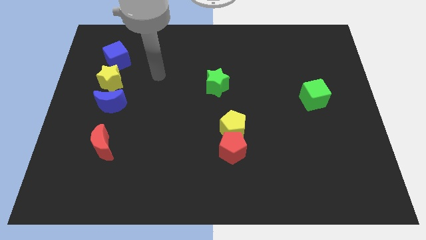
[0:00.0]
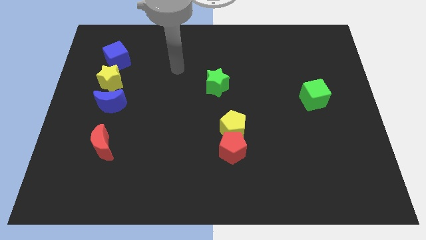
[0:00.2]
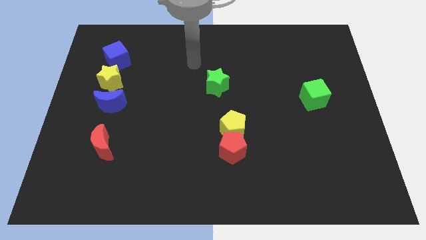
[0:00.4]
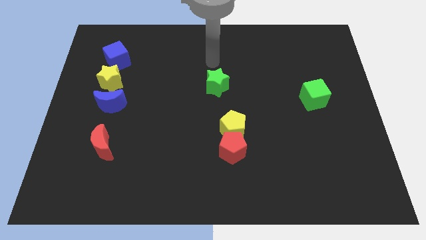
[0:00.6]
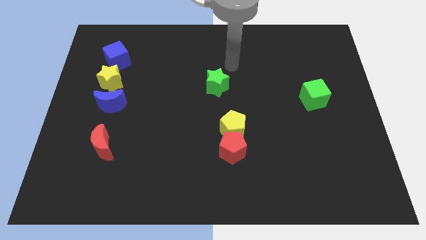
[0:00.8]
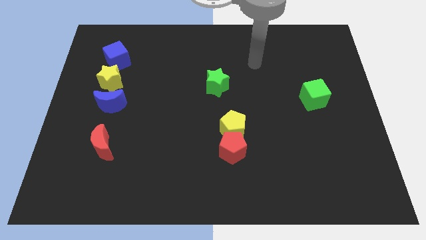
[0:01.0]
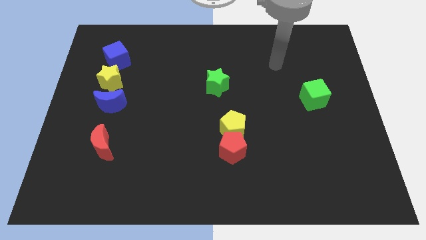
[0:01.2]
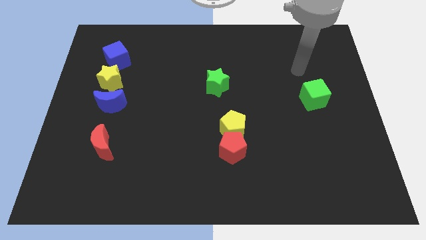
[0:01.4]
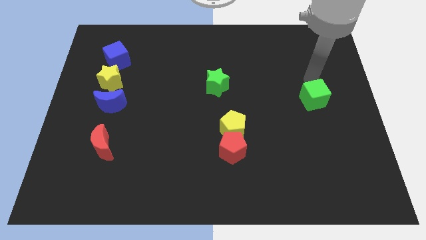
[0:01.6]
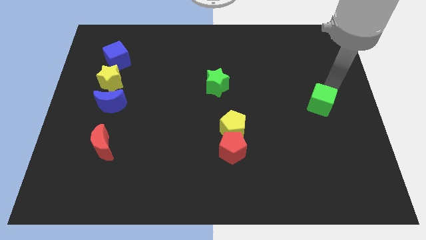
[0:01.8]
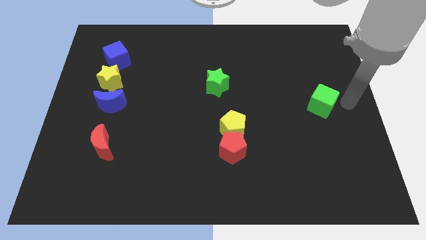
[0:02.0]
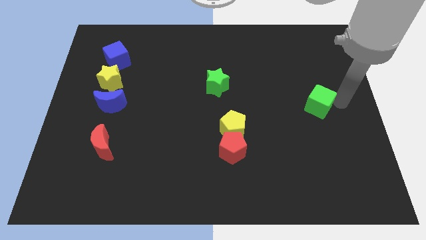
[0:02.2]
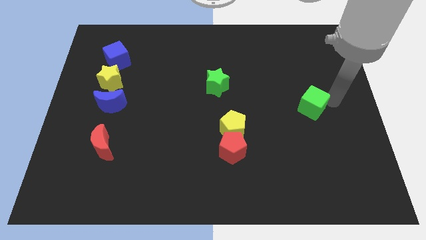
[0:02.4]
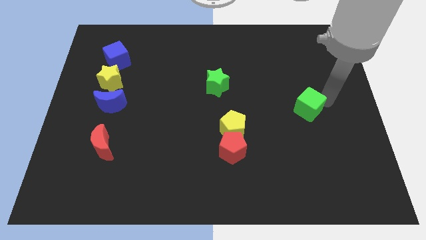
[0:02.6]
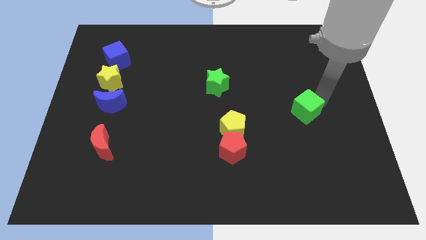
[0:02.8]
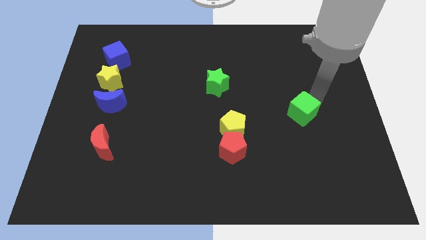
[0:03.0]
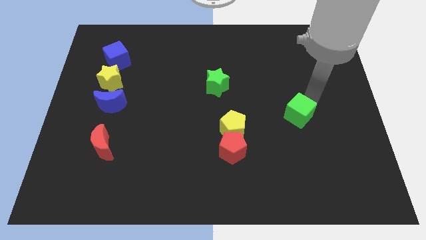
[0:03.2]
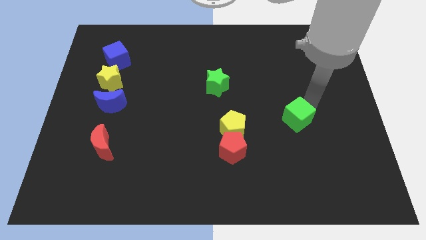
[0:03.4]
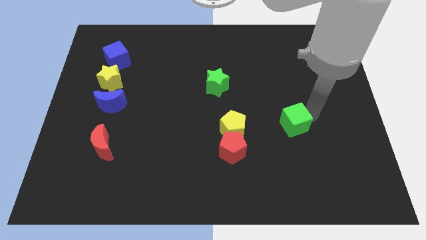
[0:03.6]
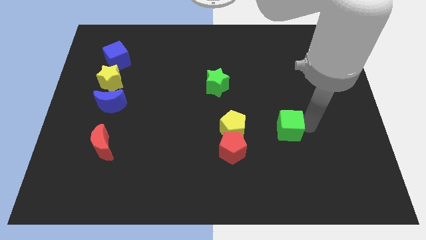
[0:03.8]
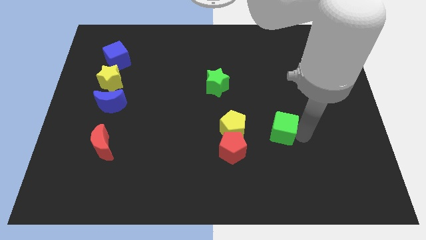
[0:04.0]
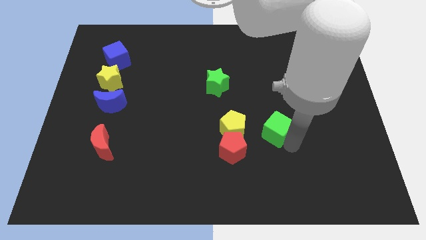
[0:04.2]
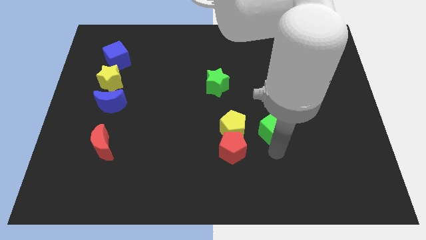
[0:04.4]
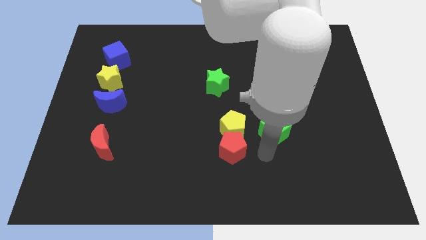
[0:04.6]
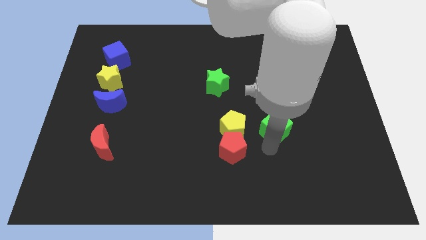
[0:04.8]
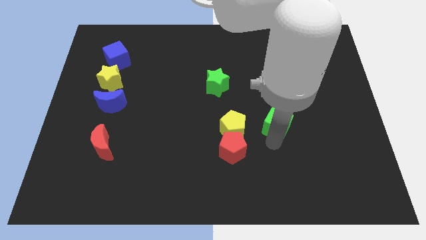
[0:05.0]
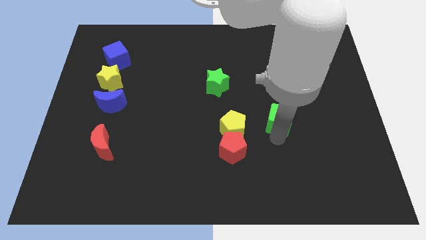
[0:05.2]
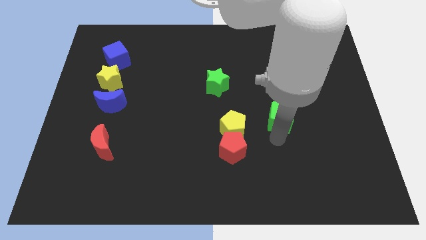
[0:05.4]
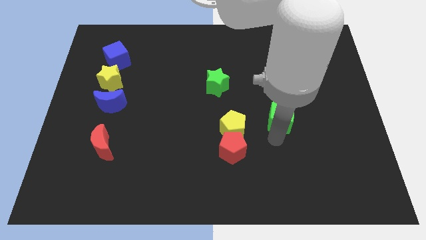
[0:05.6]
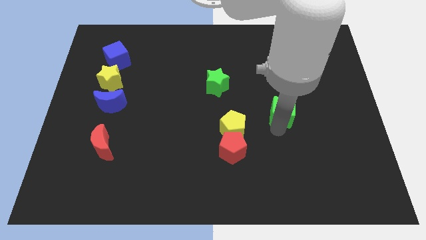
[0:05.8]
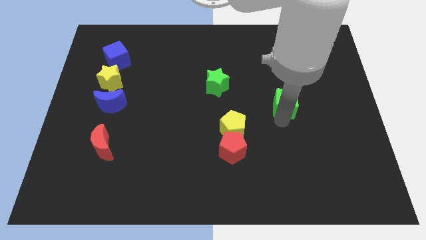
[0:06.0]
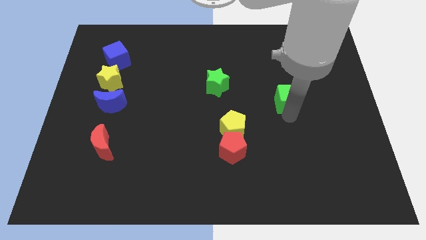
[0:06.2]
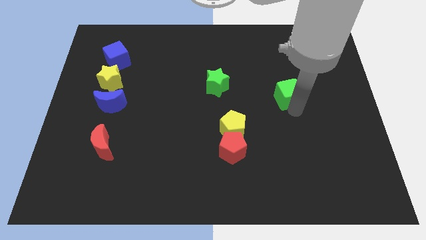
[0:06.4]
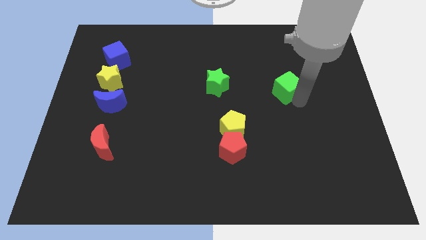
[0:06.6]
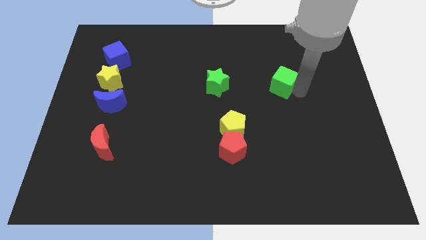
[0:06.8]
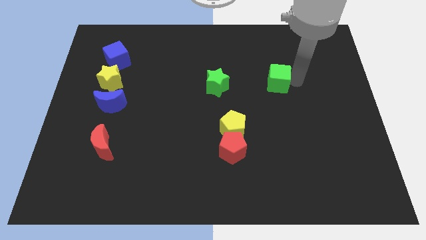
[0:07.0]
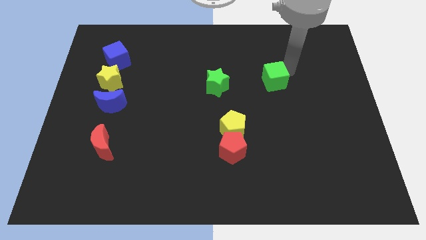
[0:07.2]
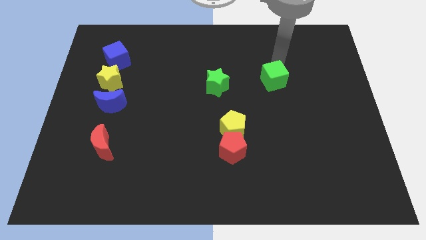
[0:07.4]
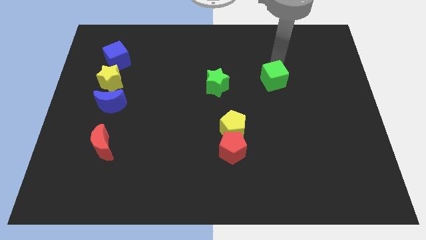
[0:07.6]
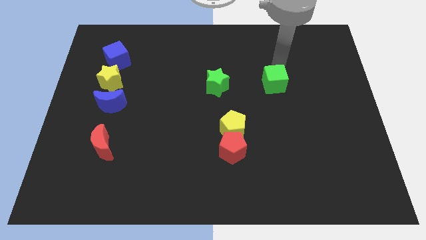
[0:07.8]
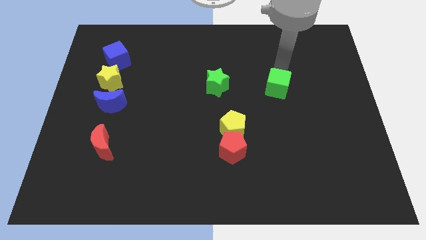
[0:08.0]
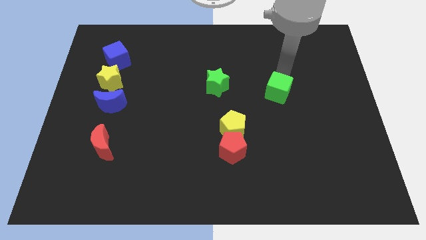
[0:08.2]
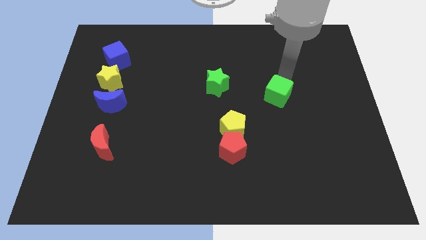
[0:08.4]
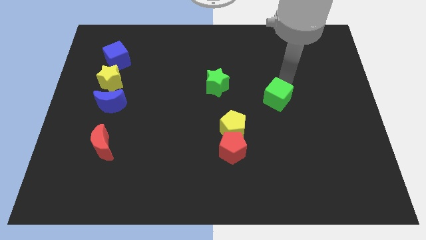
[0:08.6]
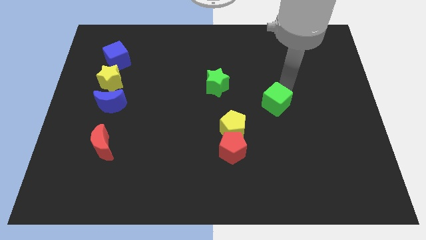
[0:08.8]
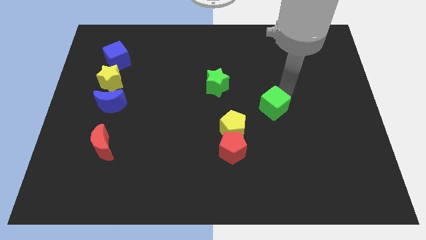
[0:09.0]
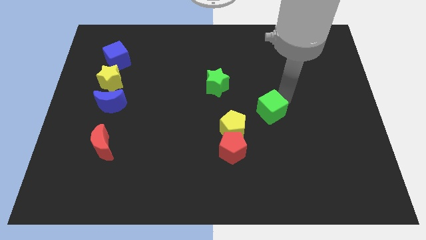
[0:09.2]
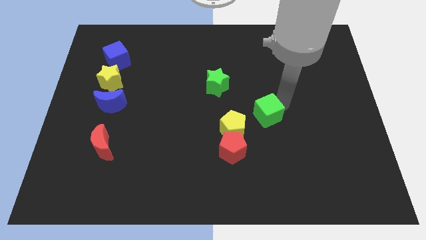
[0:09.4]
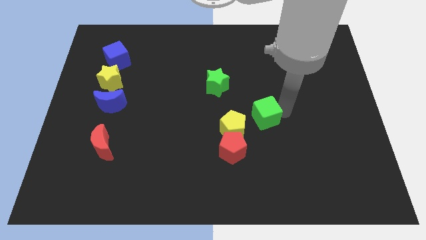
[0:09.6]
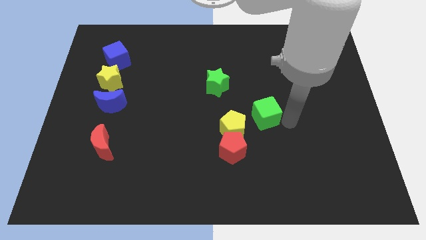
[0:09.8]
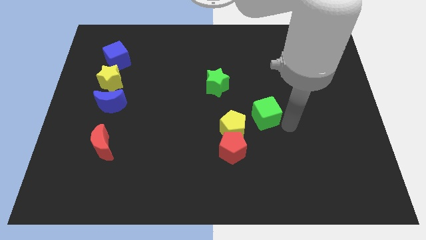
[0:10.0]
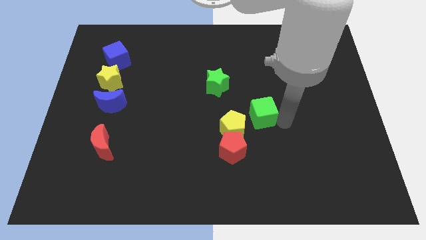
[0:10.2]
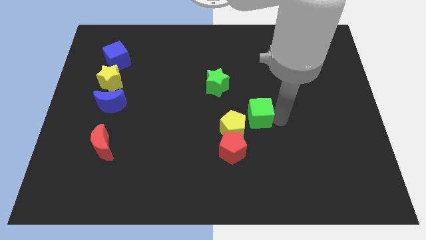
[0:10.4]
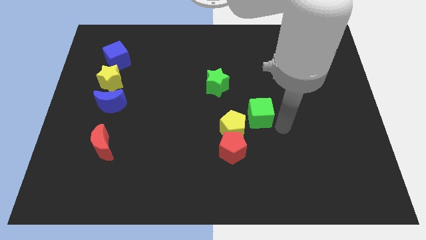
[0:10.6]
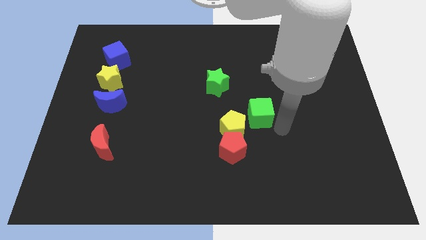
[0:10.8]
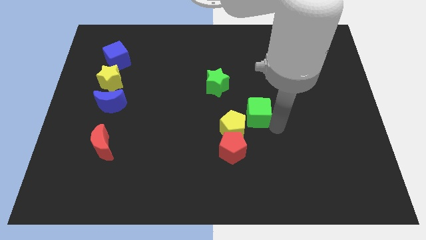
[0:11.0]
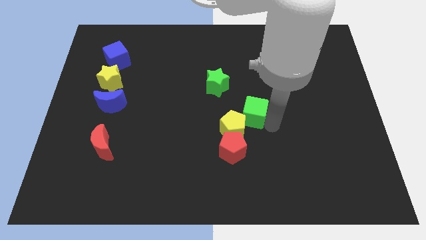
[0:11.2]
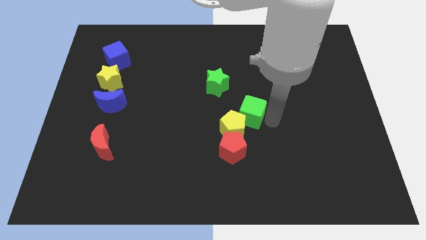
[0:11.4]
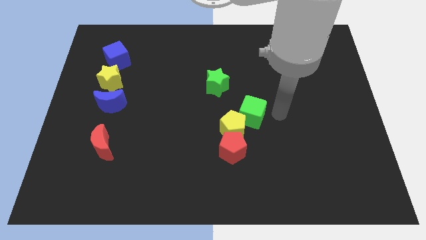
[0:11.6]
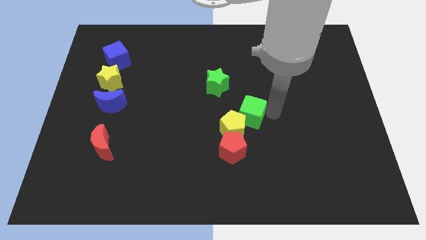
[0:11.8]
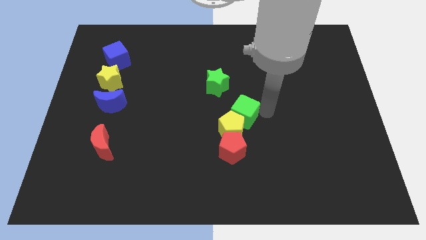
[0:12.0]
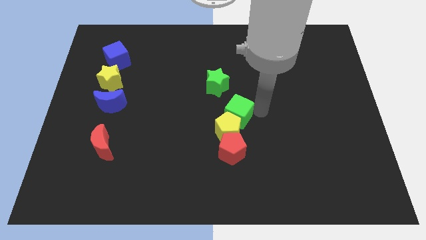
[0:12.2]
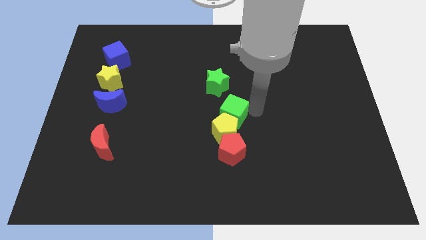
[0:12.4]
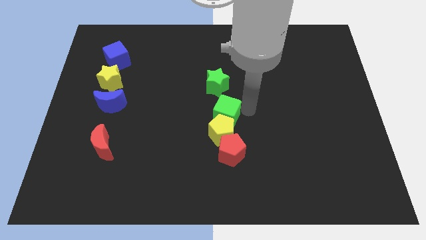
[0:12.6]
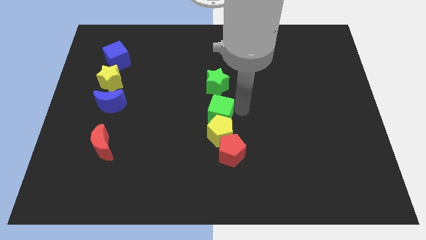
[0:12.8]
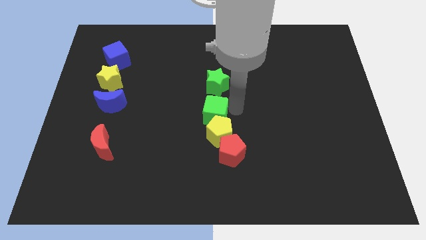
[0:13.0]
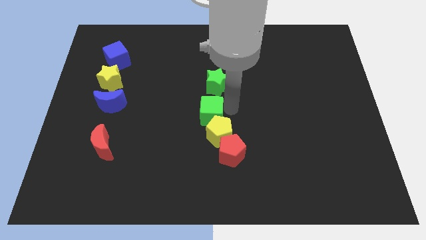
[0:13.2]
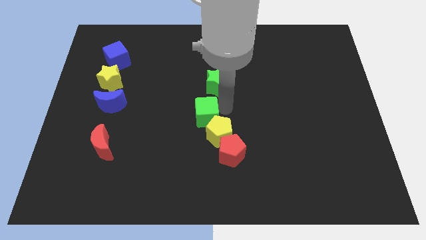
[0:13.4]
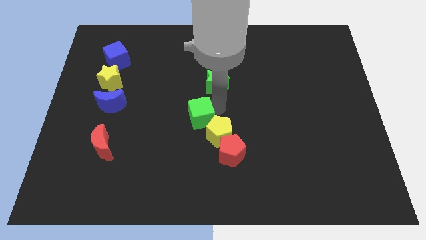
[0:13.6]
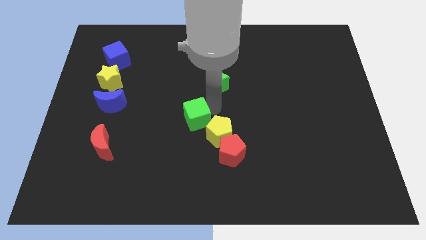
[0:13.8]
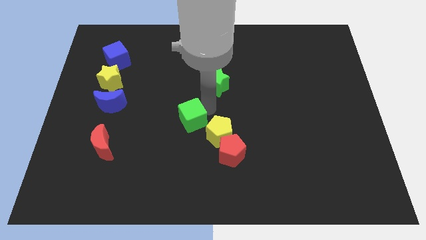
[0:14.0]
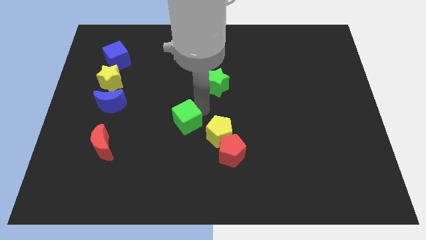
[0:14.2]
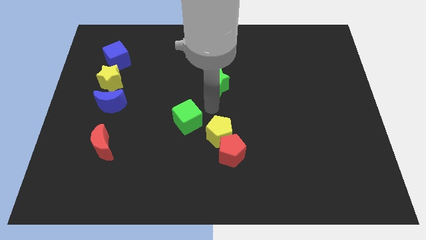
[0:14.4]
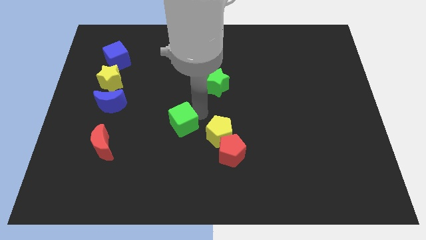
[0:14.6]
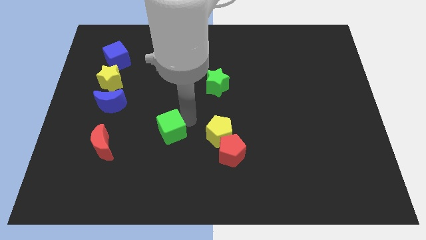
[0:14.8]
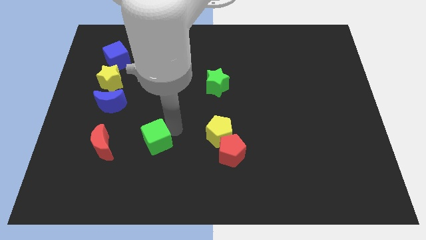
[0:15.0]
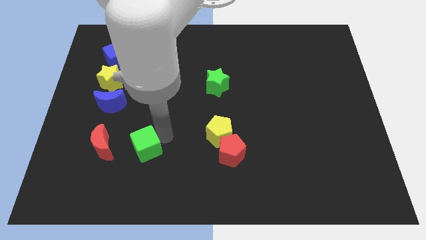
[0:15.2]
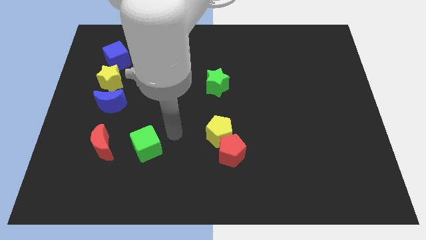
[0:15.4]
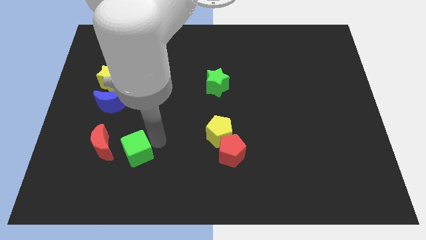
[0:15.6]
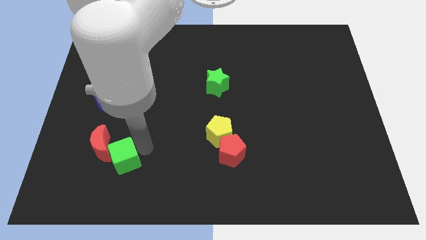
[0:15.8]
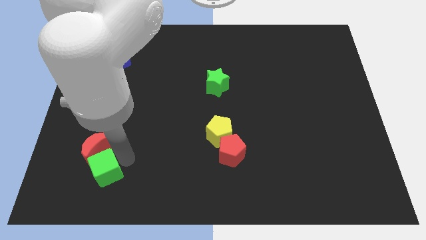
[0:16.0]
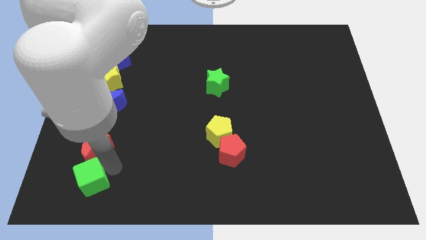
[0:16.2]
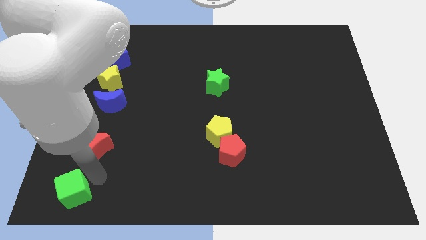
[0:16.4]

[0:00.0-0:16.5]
put the green cube to the bottom left
